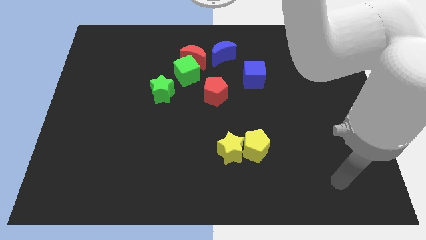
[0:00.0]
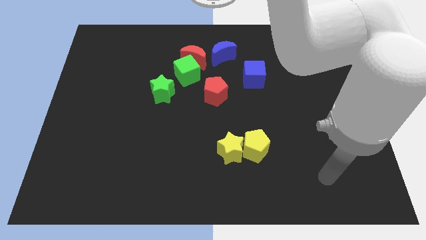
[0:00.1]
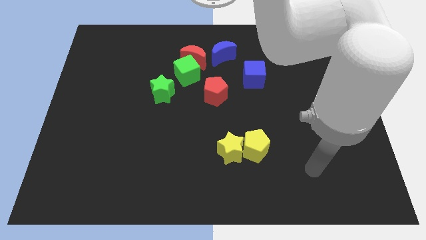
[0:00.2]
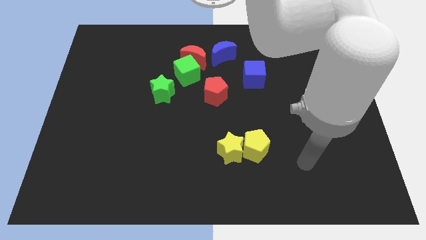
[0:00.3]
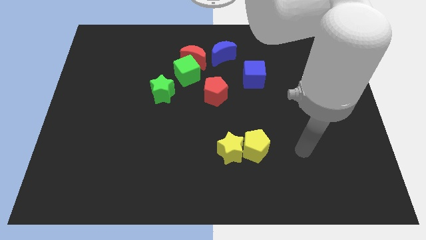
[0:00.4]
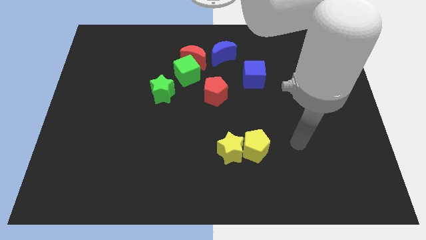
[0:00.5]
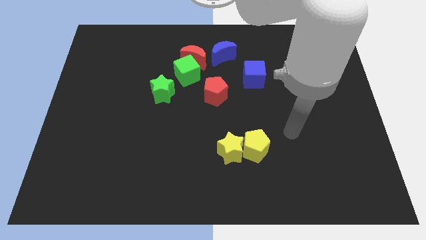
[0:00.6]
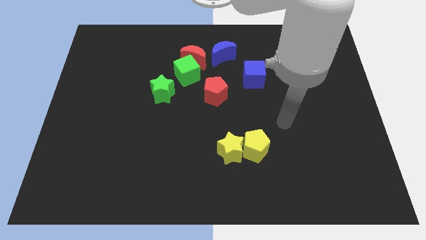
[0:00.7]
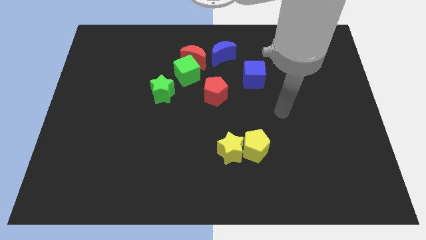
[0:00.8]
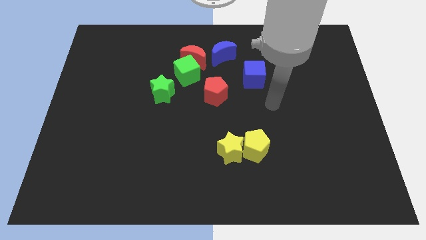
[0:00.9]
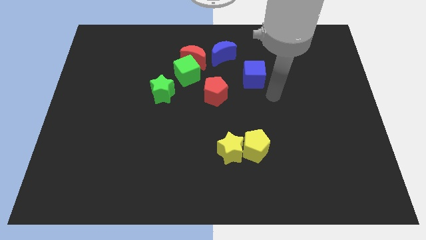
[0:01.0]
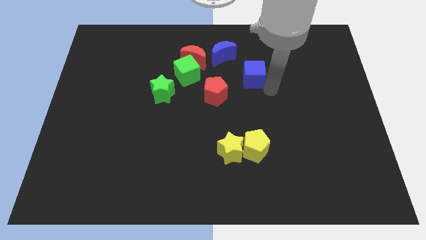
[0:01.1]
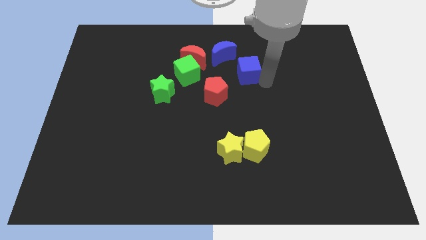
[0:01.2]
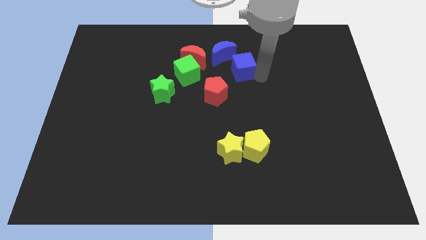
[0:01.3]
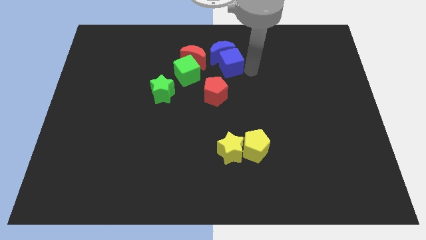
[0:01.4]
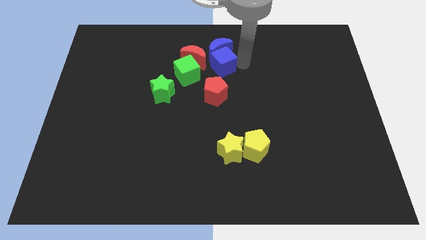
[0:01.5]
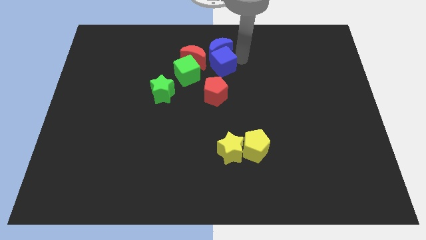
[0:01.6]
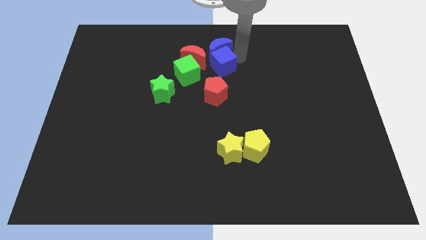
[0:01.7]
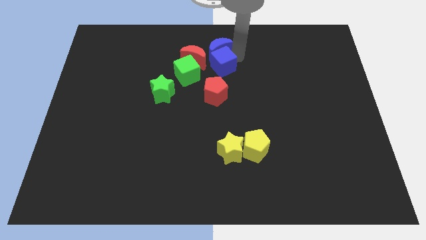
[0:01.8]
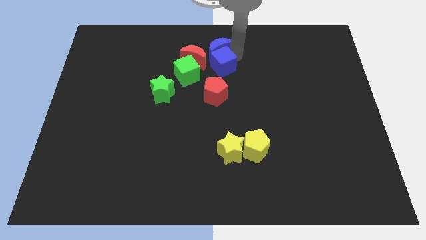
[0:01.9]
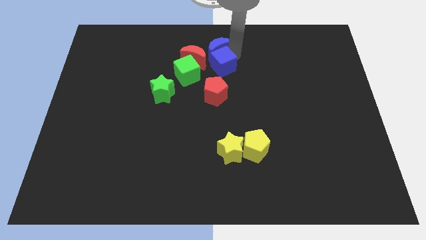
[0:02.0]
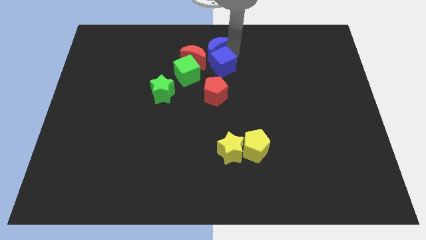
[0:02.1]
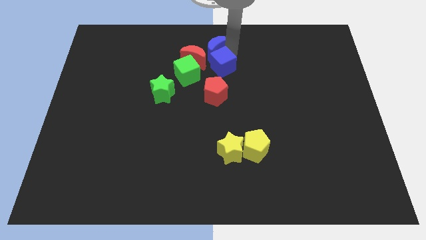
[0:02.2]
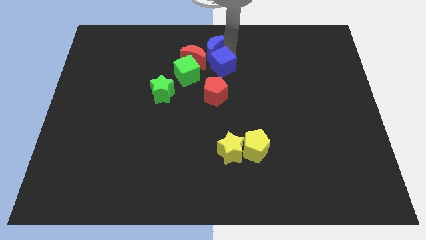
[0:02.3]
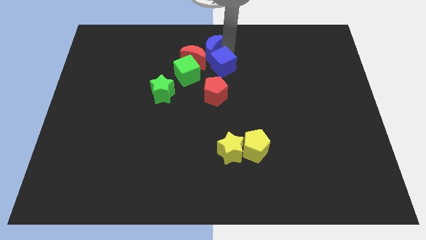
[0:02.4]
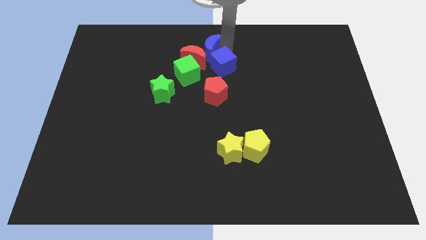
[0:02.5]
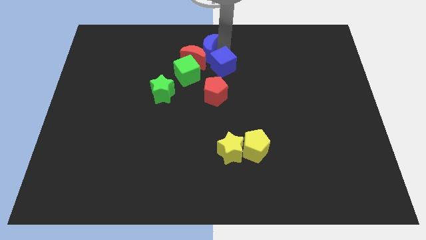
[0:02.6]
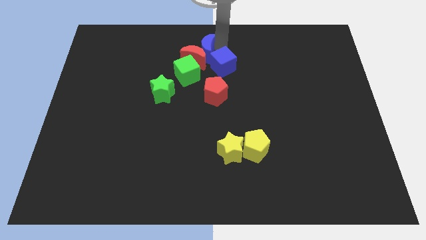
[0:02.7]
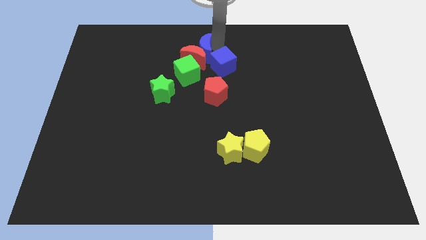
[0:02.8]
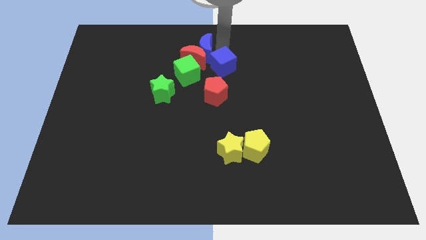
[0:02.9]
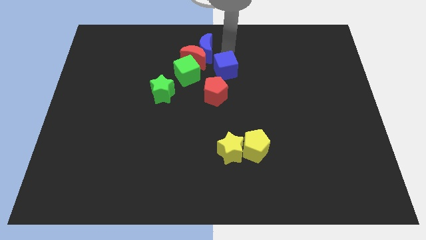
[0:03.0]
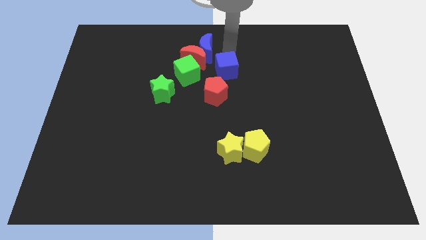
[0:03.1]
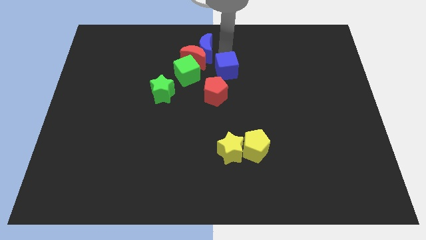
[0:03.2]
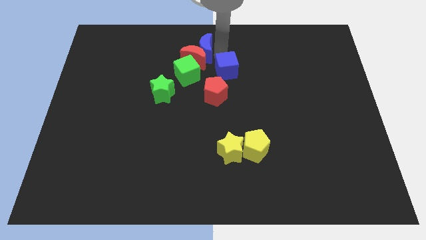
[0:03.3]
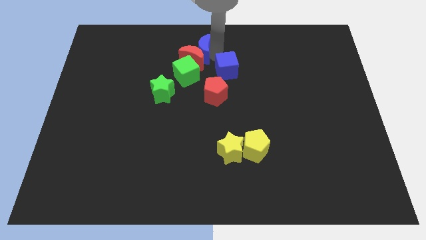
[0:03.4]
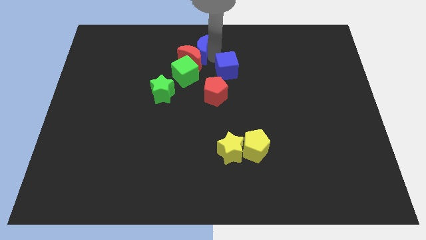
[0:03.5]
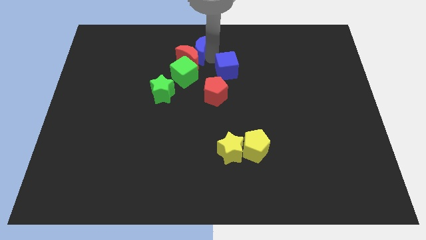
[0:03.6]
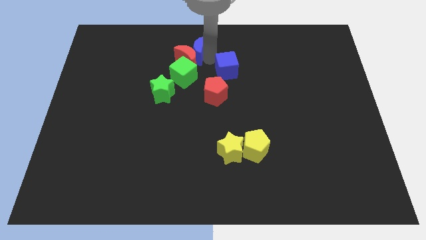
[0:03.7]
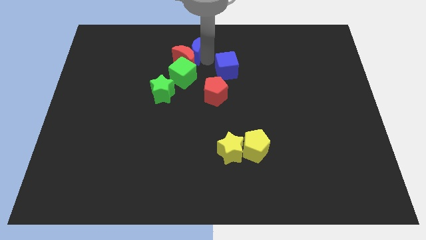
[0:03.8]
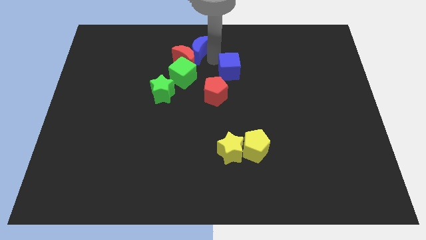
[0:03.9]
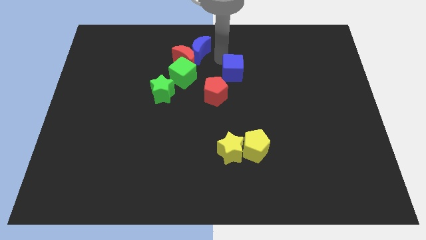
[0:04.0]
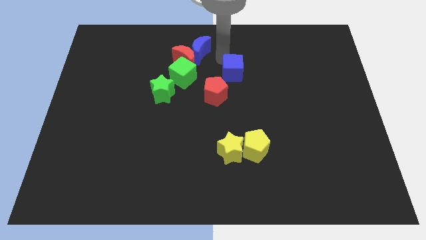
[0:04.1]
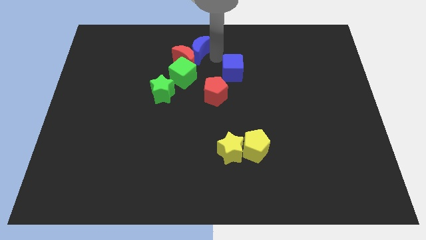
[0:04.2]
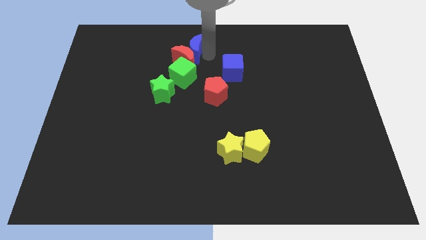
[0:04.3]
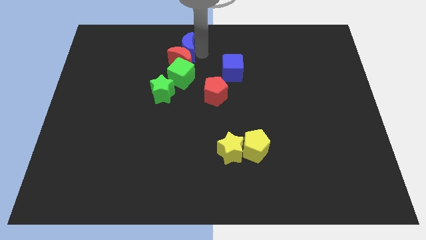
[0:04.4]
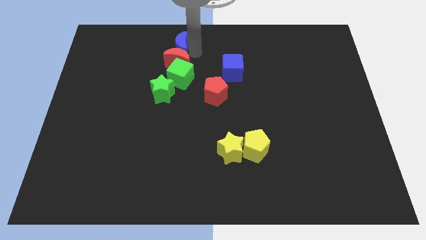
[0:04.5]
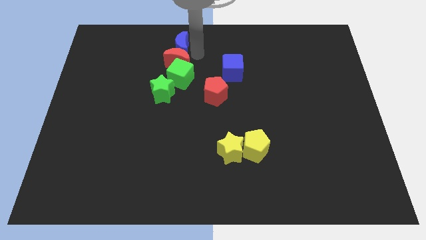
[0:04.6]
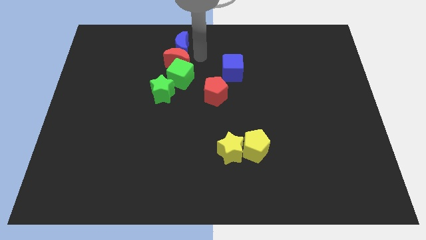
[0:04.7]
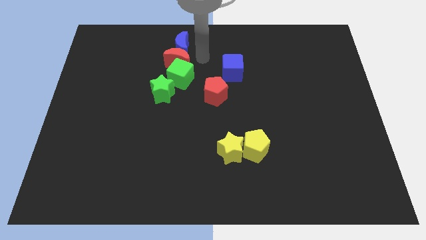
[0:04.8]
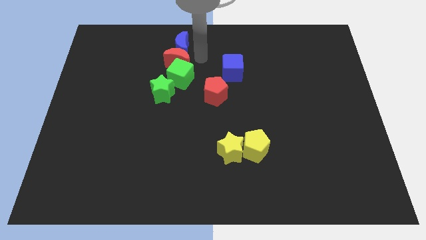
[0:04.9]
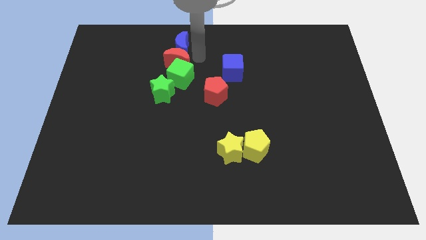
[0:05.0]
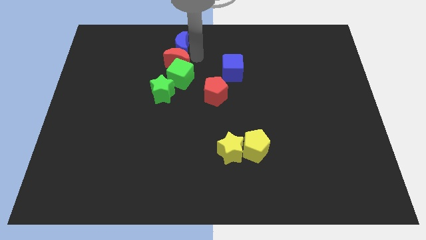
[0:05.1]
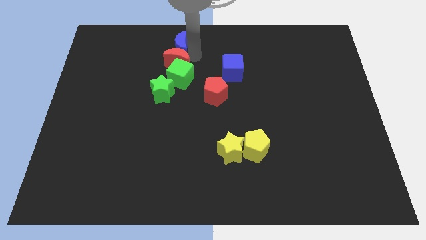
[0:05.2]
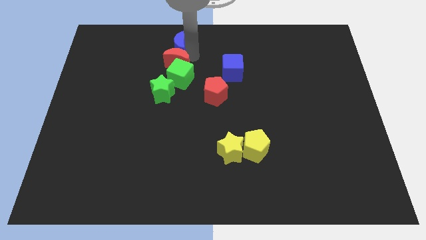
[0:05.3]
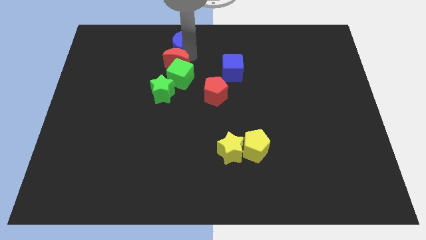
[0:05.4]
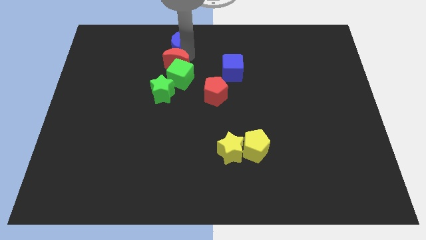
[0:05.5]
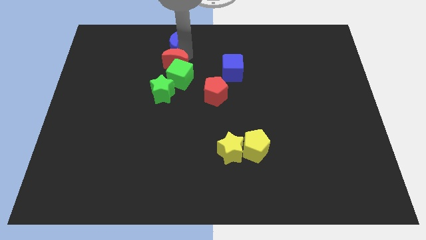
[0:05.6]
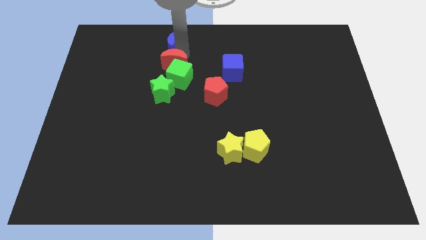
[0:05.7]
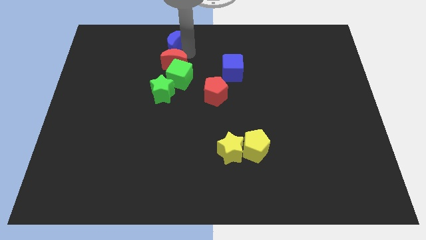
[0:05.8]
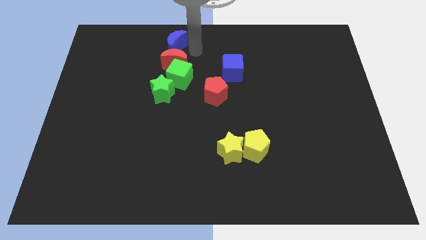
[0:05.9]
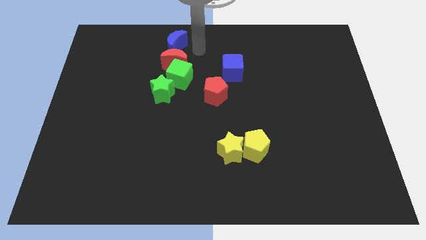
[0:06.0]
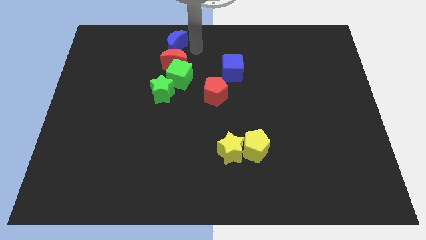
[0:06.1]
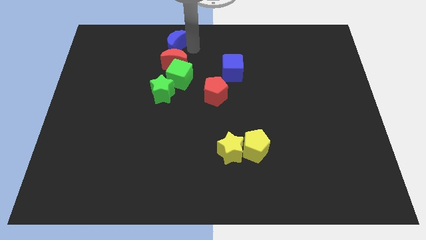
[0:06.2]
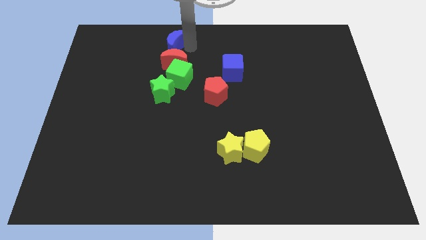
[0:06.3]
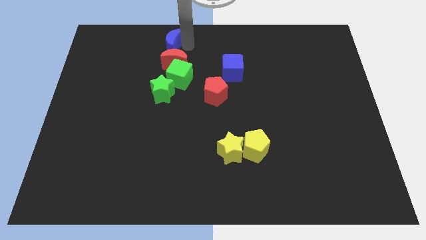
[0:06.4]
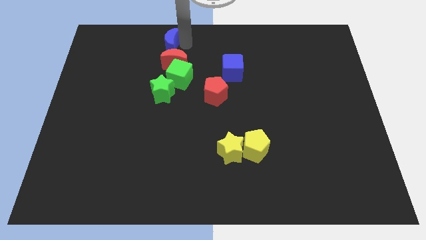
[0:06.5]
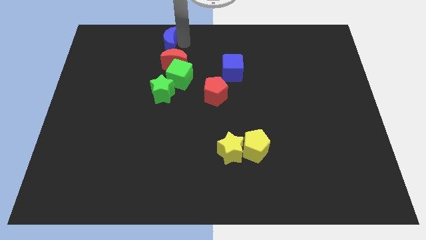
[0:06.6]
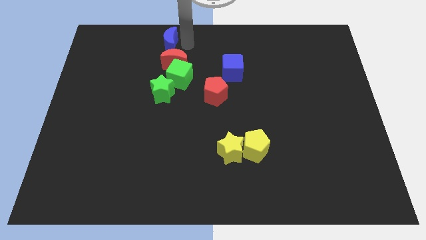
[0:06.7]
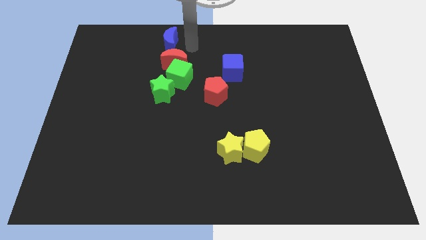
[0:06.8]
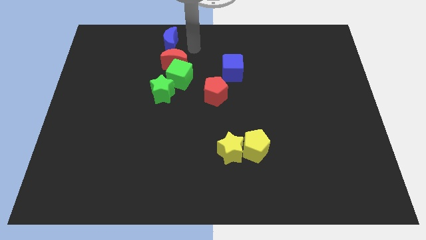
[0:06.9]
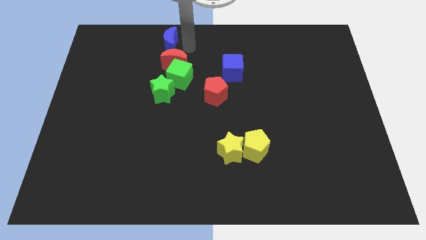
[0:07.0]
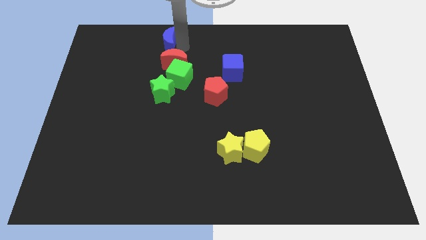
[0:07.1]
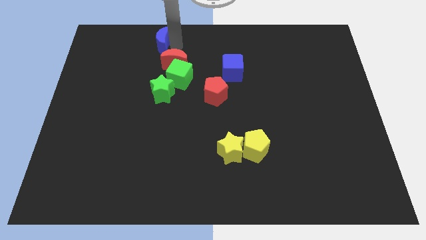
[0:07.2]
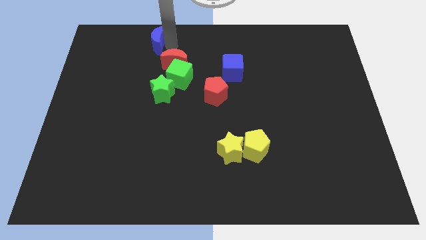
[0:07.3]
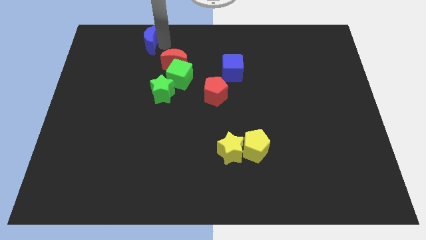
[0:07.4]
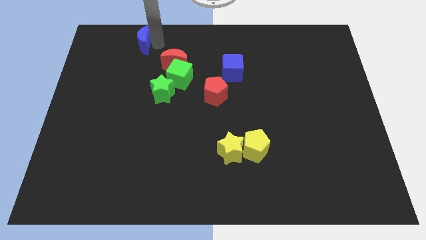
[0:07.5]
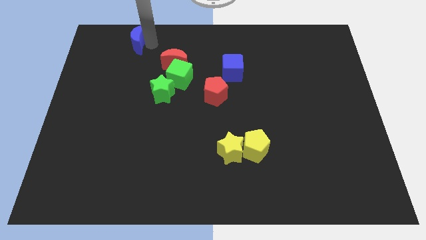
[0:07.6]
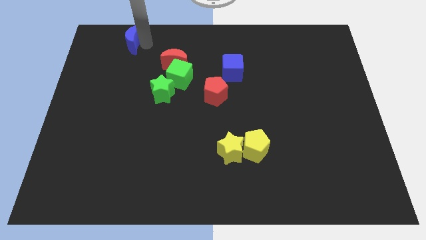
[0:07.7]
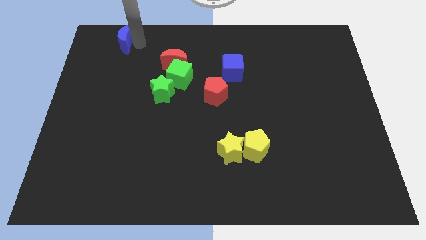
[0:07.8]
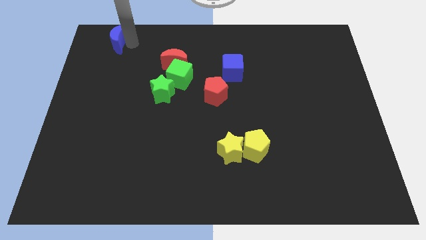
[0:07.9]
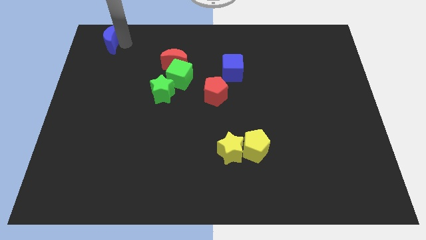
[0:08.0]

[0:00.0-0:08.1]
move the blue moon to the top left

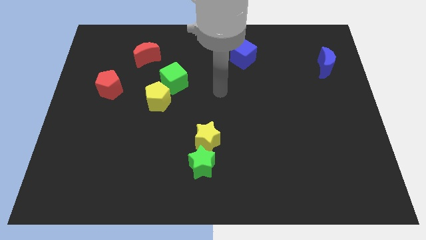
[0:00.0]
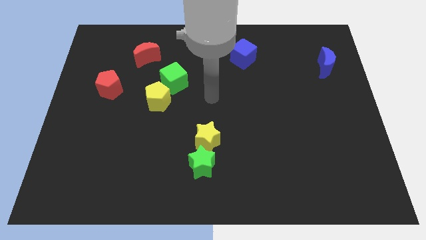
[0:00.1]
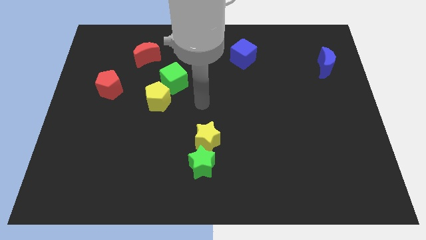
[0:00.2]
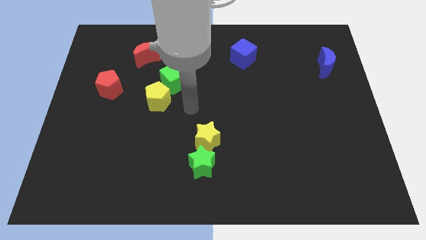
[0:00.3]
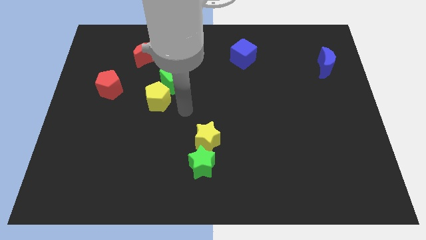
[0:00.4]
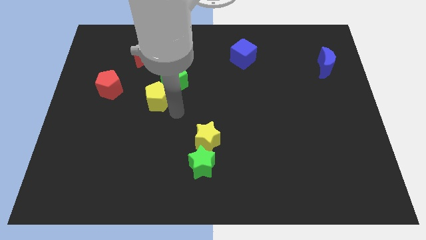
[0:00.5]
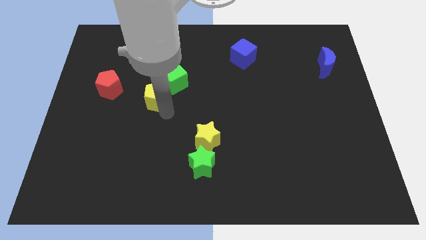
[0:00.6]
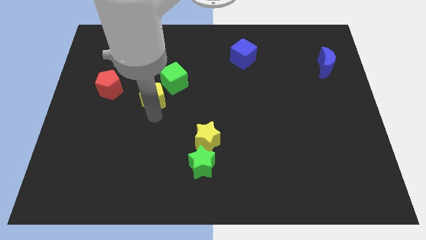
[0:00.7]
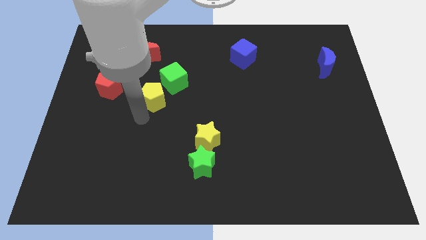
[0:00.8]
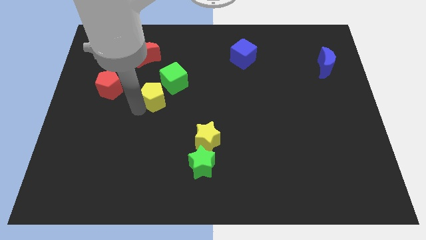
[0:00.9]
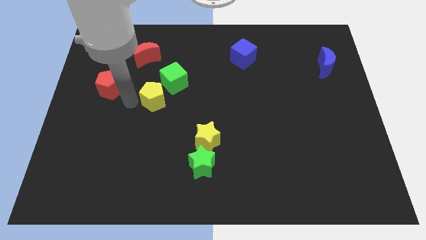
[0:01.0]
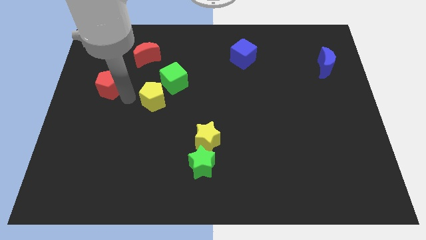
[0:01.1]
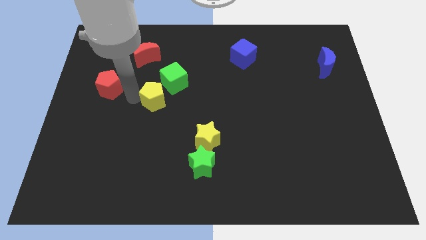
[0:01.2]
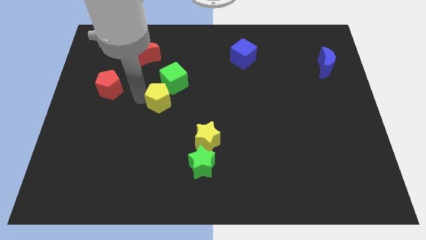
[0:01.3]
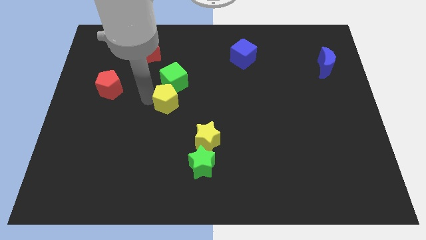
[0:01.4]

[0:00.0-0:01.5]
push the yellow pentagon to the center of the board
